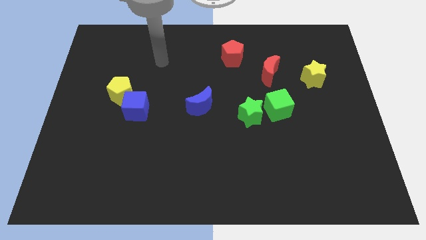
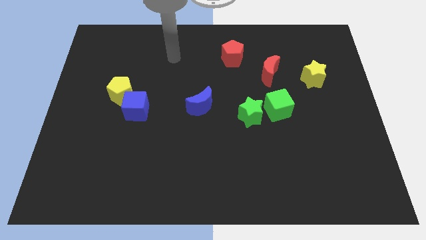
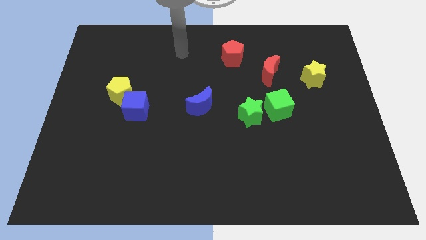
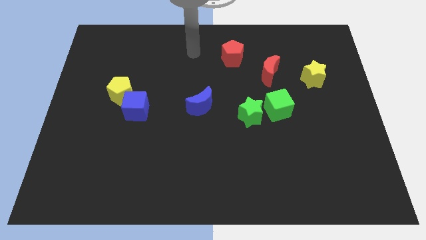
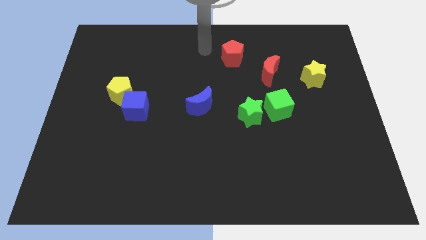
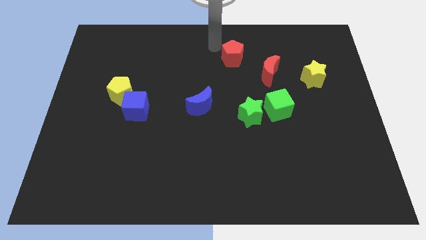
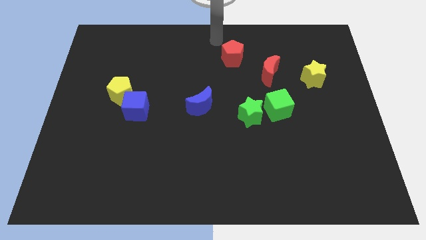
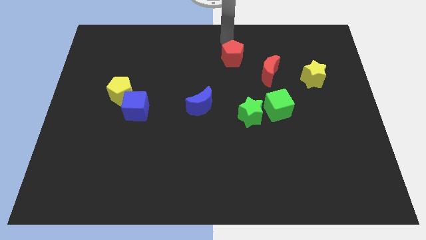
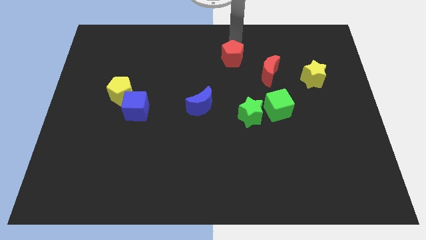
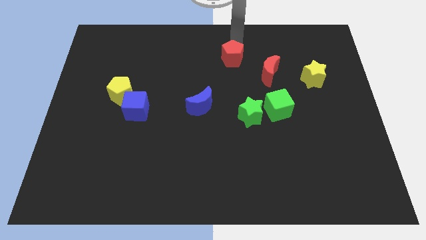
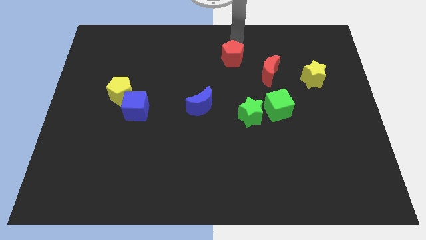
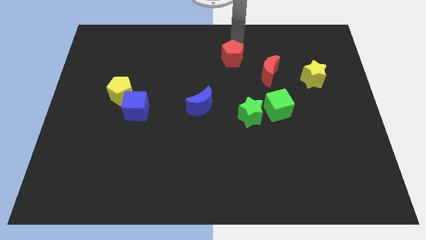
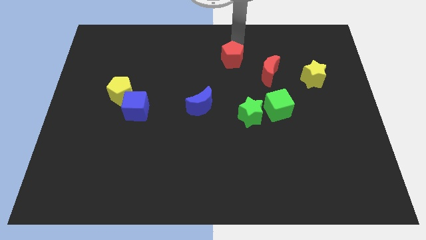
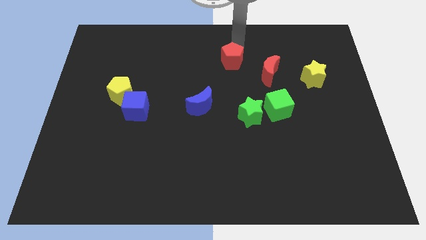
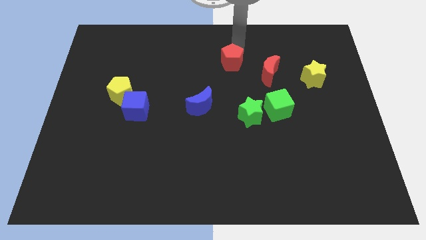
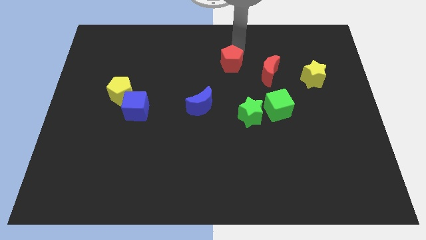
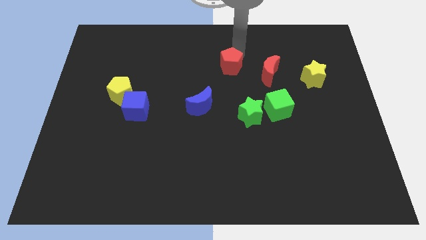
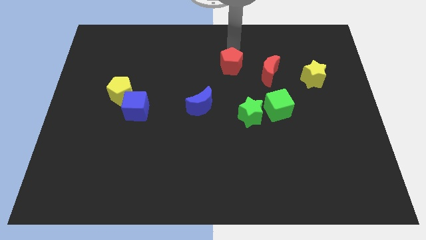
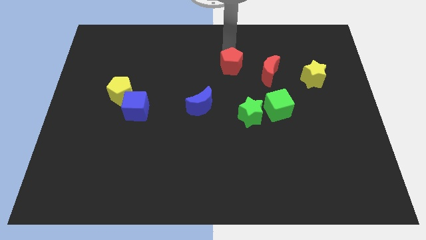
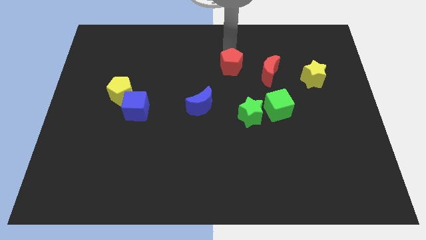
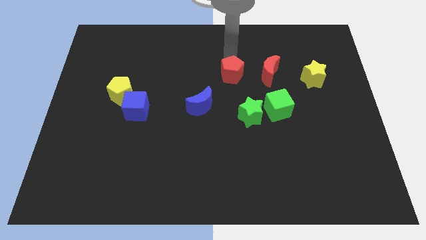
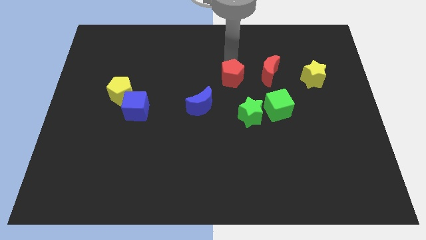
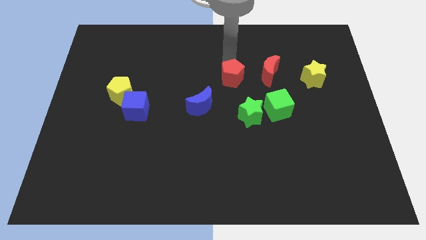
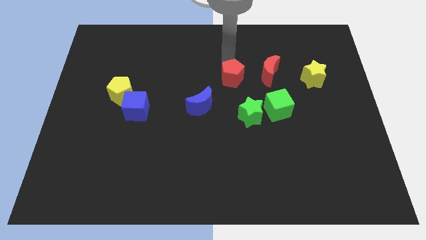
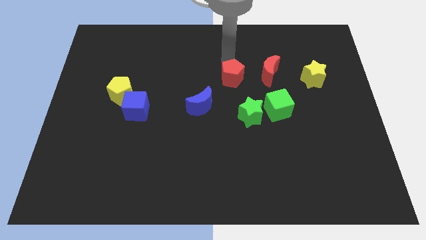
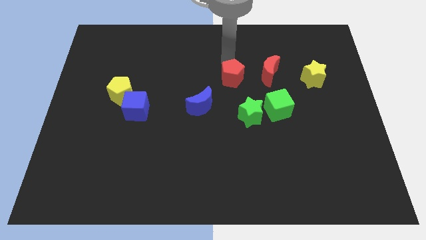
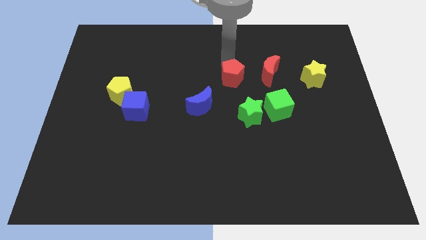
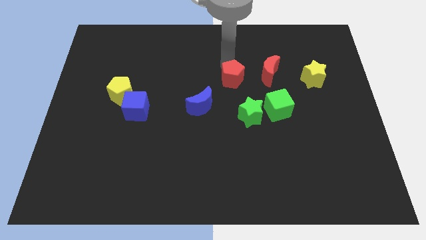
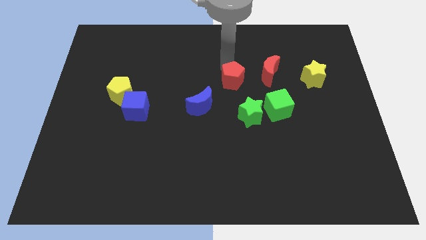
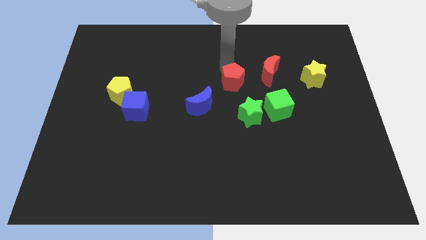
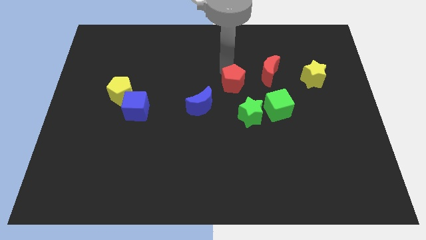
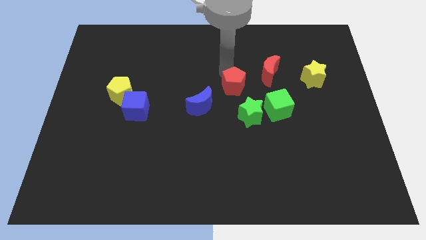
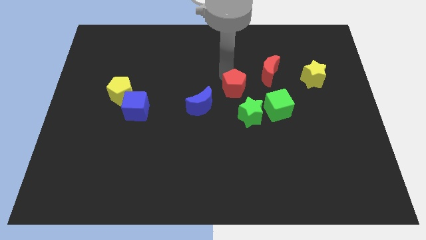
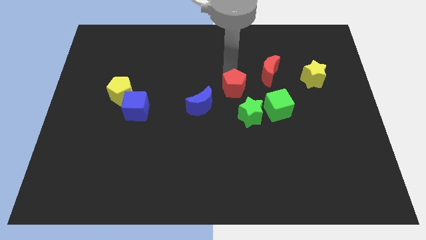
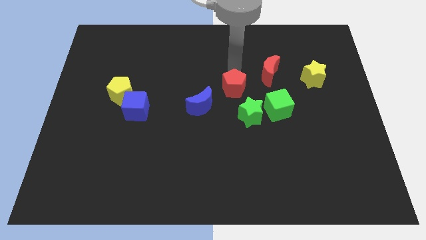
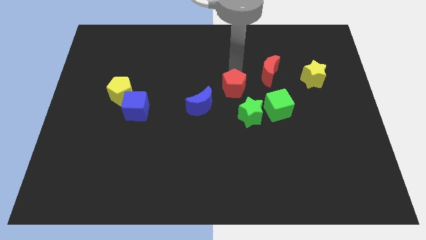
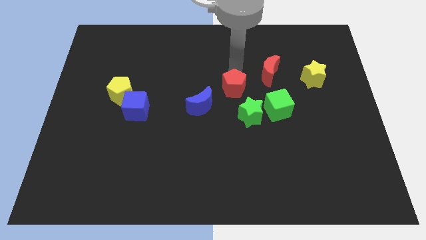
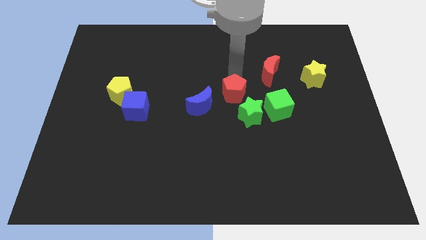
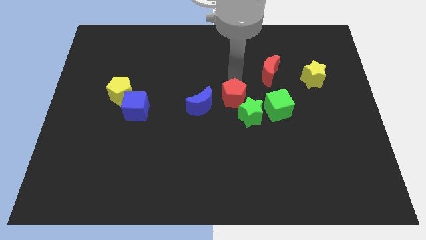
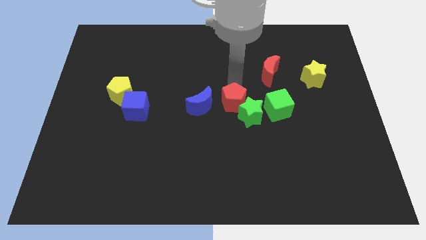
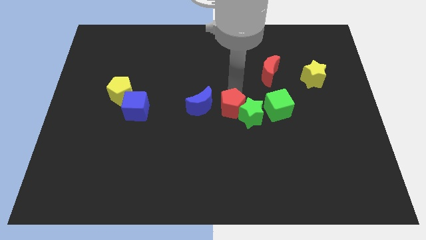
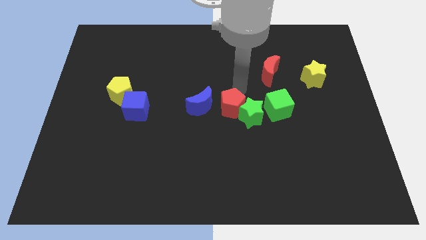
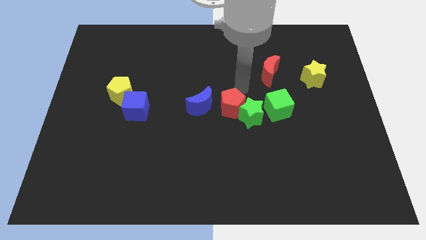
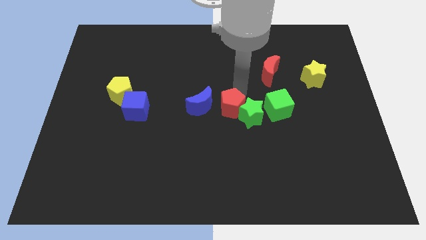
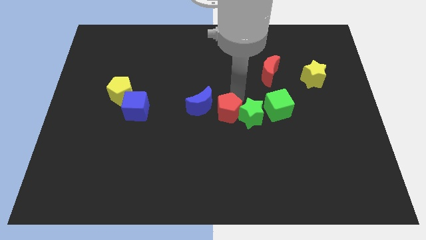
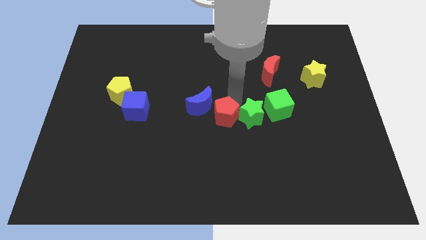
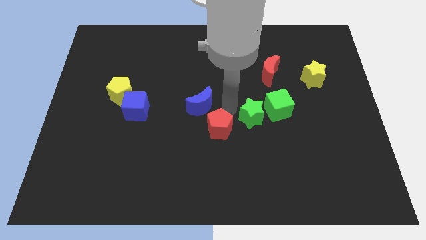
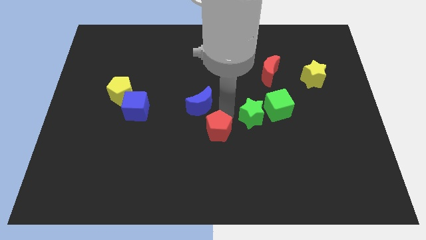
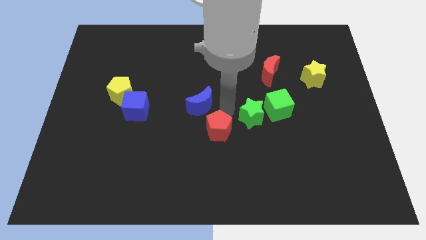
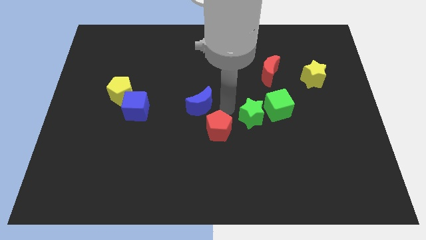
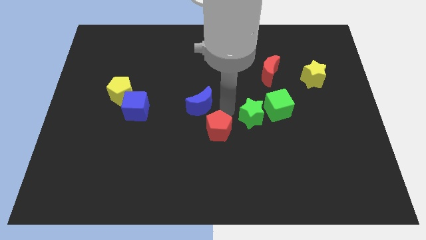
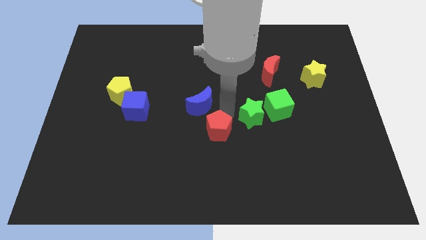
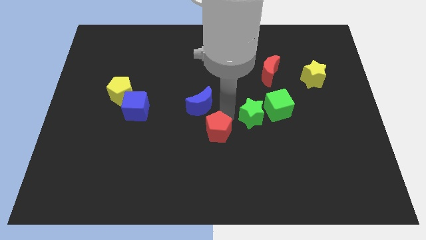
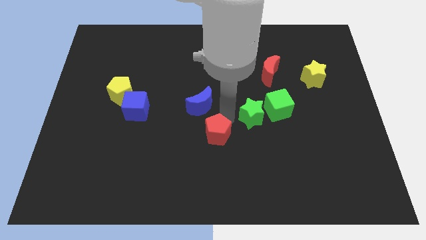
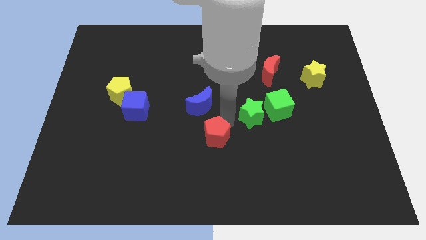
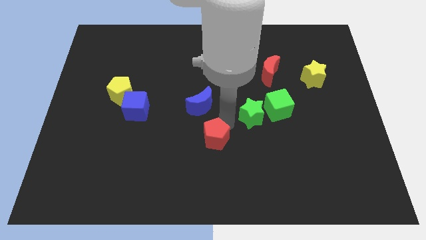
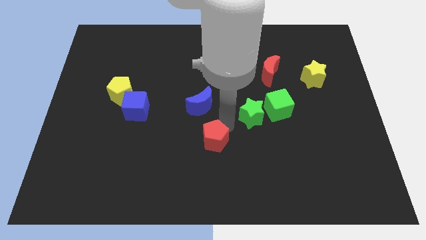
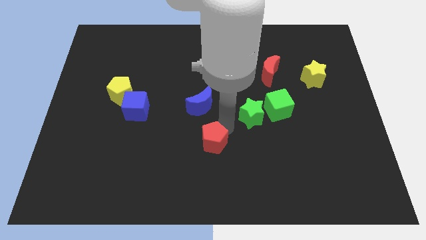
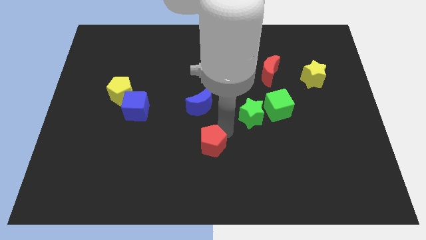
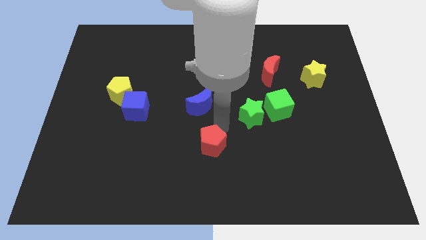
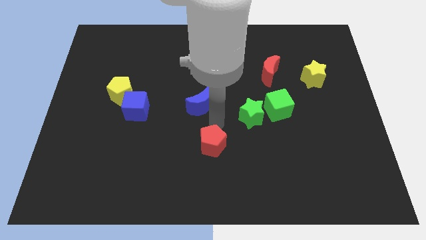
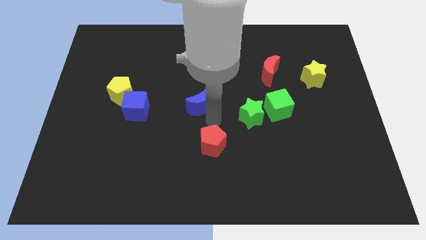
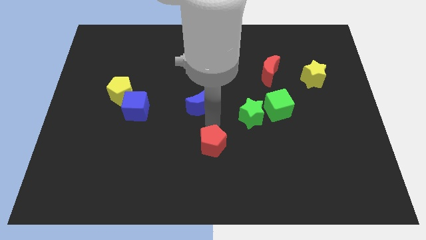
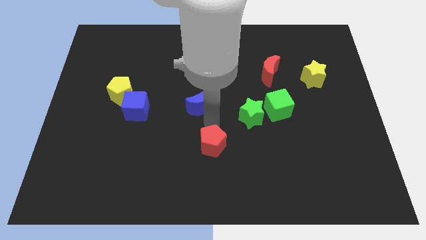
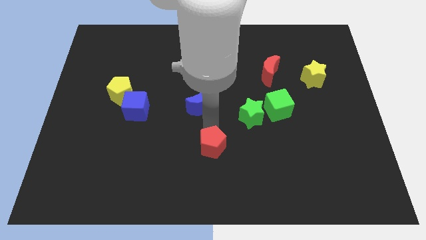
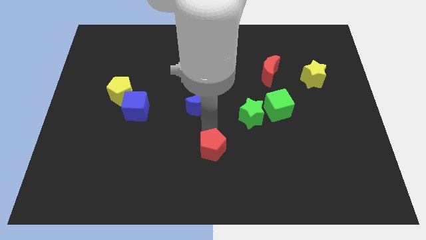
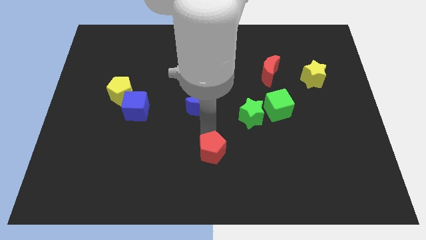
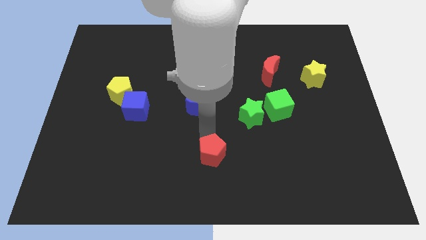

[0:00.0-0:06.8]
slide the red pentagon to the bottom
